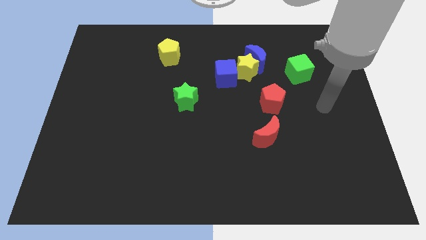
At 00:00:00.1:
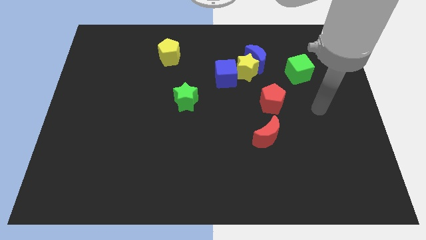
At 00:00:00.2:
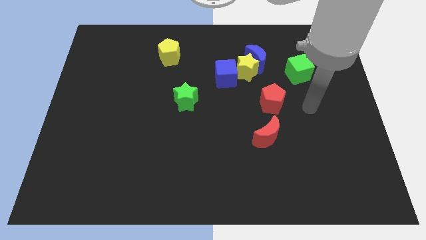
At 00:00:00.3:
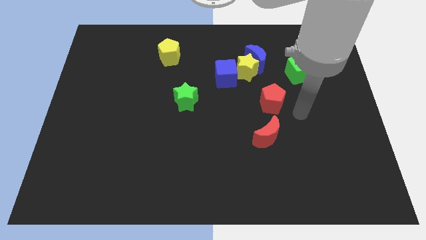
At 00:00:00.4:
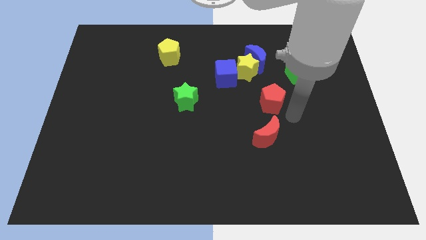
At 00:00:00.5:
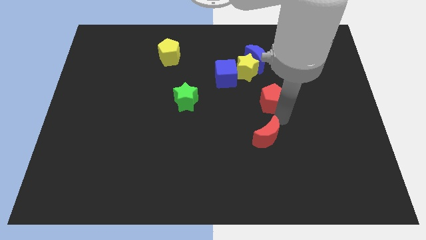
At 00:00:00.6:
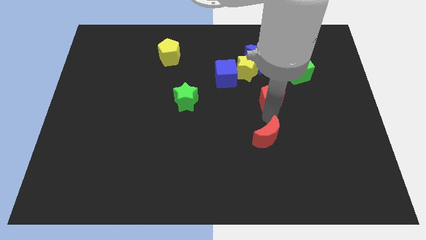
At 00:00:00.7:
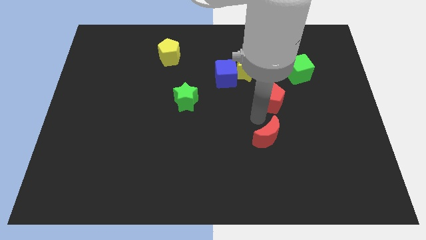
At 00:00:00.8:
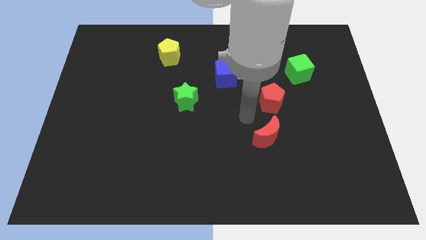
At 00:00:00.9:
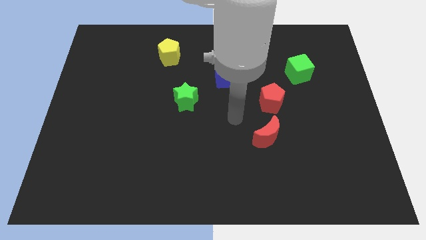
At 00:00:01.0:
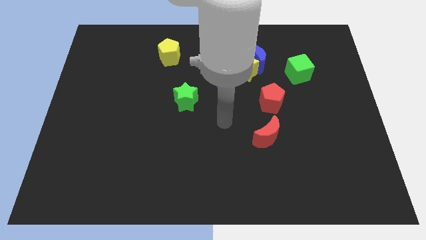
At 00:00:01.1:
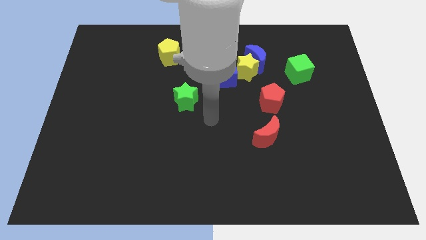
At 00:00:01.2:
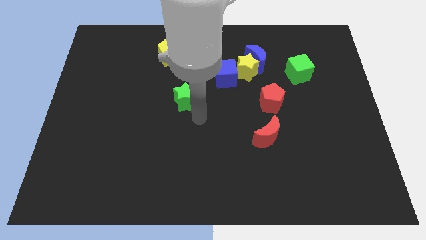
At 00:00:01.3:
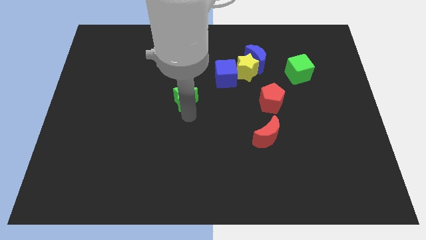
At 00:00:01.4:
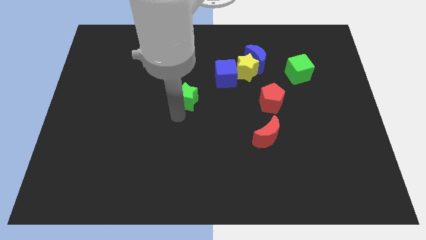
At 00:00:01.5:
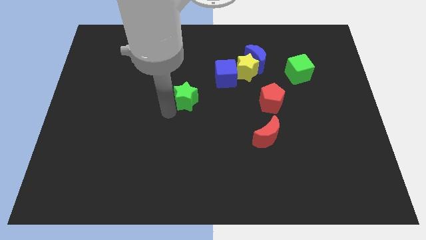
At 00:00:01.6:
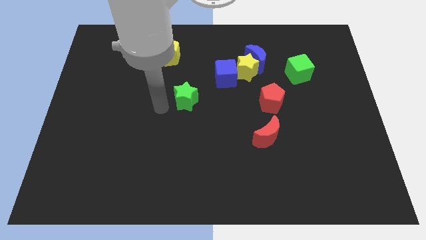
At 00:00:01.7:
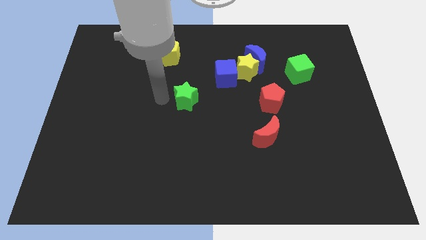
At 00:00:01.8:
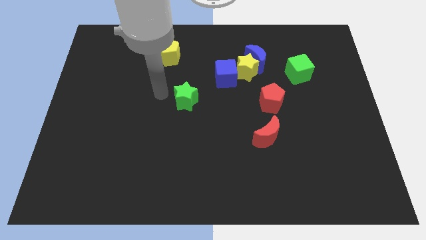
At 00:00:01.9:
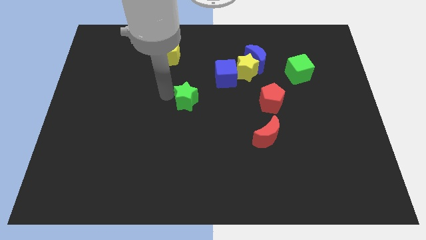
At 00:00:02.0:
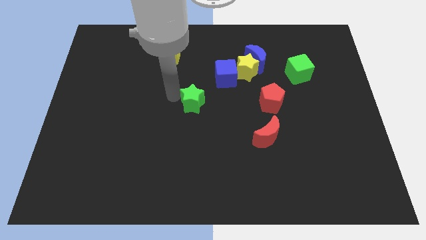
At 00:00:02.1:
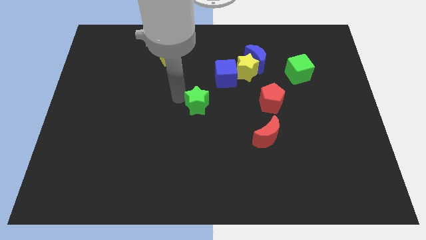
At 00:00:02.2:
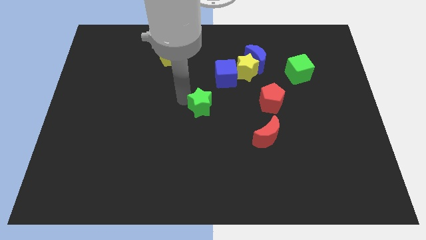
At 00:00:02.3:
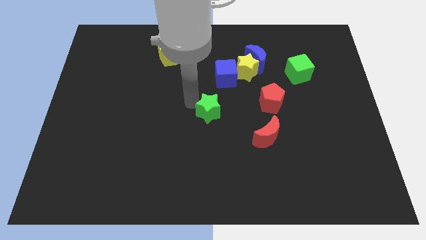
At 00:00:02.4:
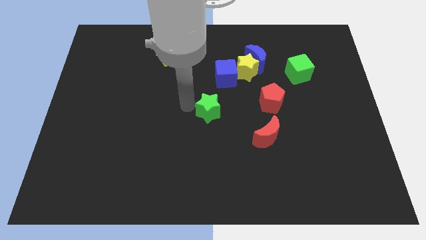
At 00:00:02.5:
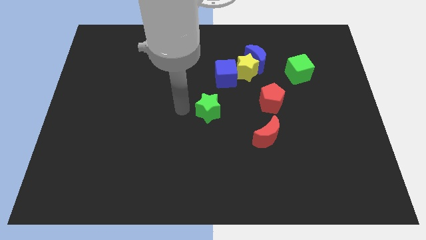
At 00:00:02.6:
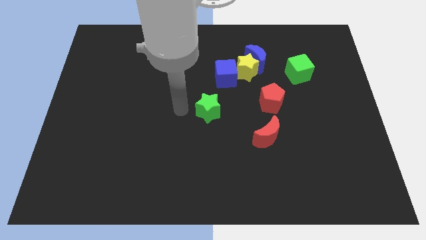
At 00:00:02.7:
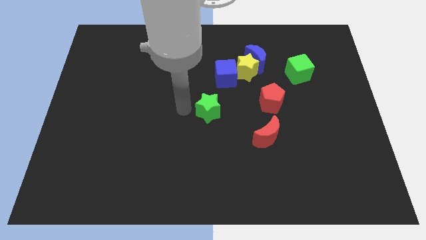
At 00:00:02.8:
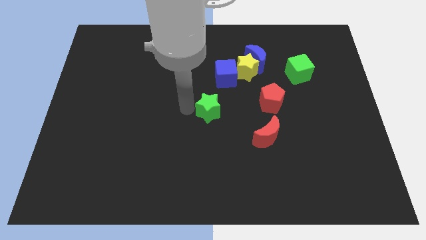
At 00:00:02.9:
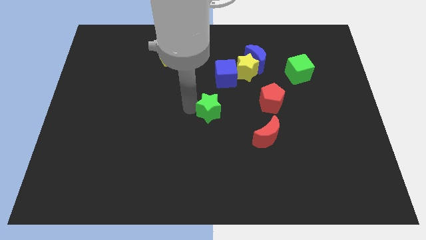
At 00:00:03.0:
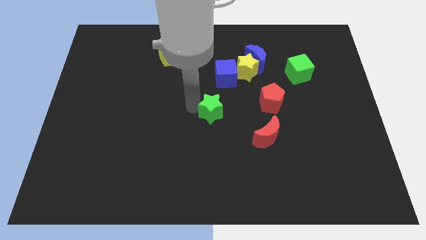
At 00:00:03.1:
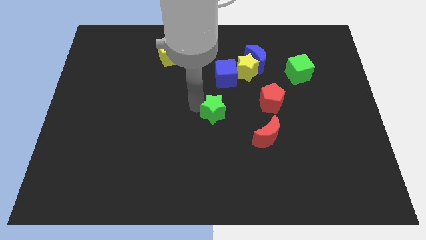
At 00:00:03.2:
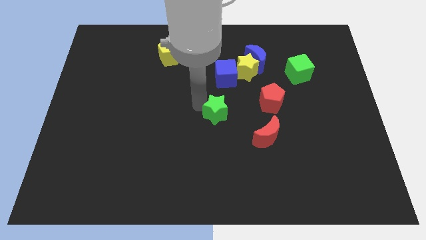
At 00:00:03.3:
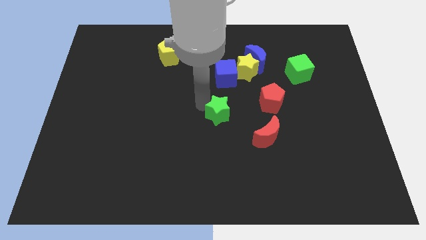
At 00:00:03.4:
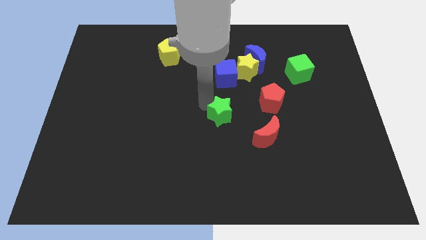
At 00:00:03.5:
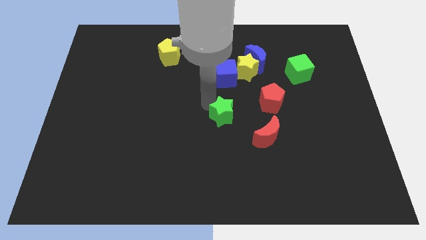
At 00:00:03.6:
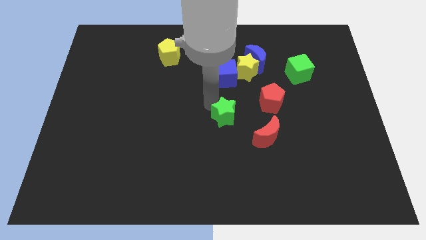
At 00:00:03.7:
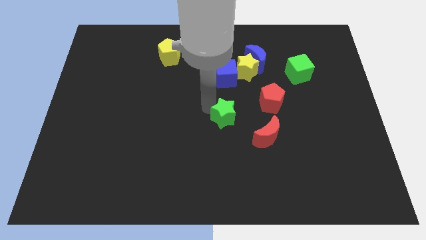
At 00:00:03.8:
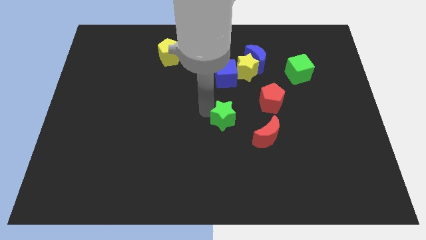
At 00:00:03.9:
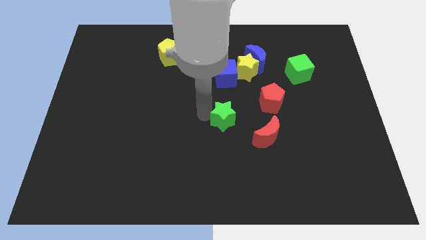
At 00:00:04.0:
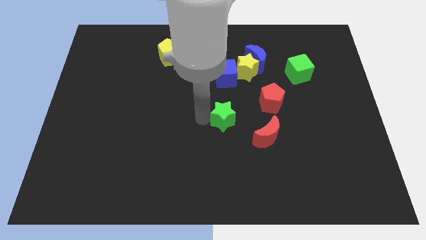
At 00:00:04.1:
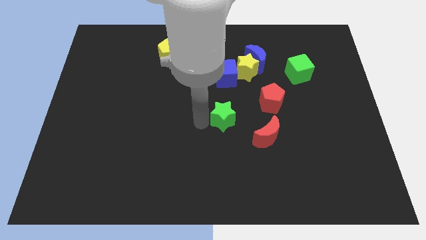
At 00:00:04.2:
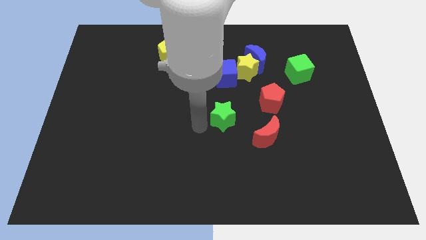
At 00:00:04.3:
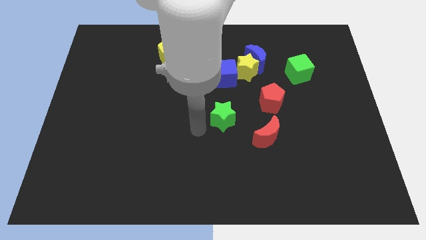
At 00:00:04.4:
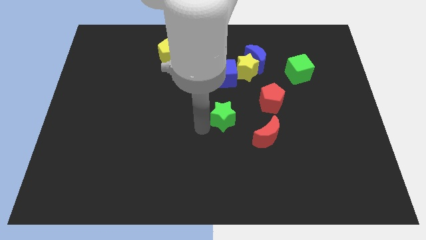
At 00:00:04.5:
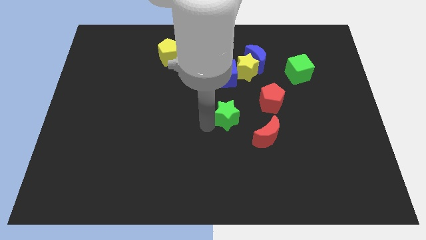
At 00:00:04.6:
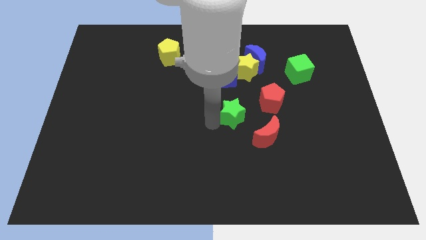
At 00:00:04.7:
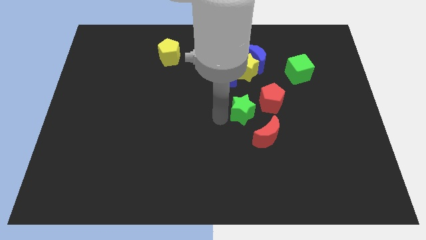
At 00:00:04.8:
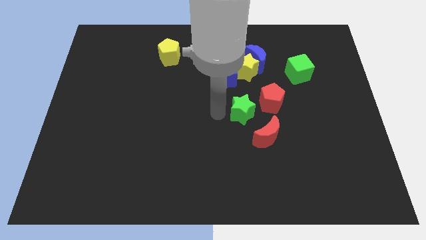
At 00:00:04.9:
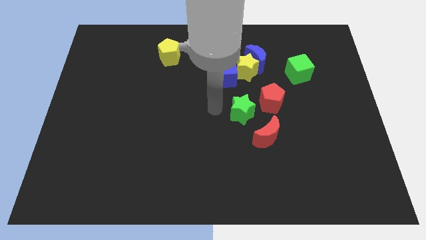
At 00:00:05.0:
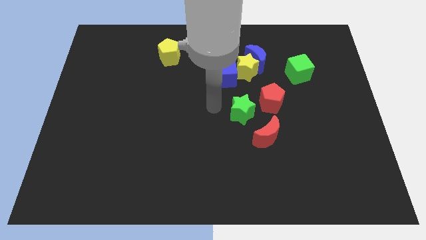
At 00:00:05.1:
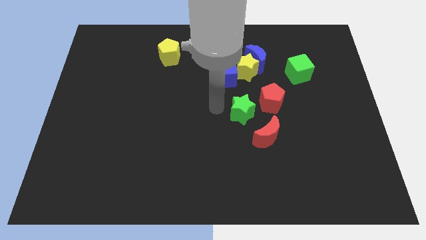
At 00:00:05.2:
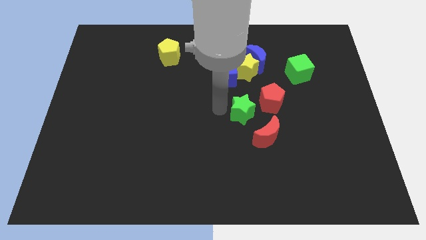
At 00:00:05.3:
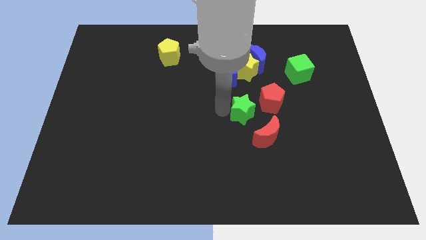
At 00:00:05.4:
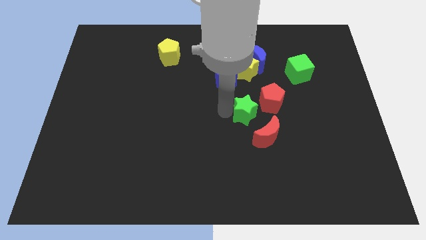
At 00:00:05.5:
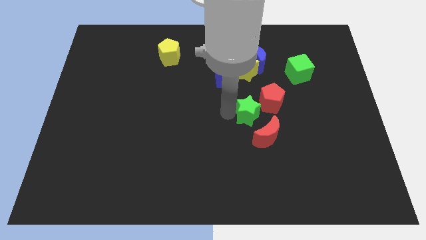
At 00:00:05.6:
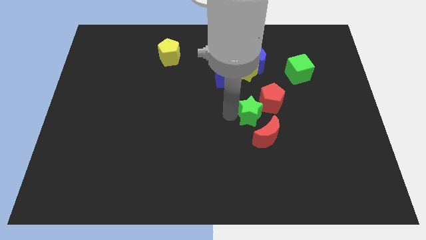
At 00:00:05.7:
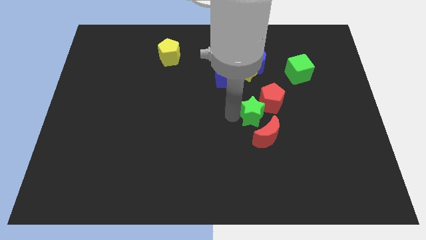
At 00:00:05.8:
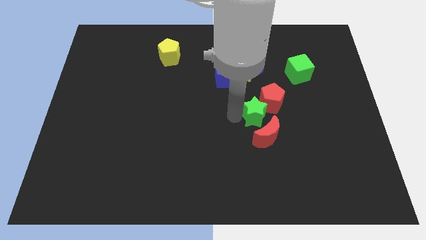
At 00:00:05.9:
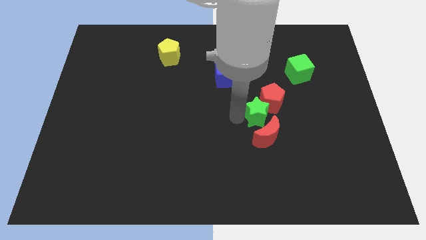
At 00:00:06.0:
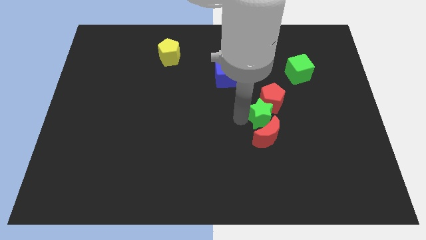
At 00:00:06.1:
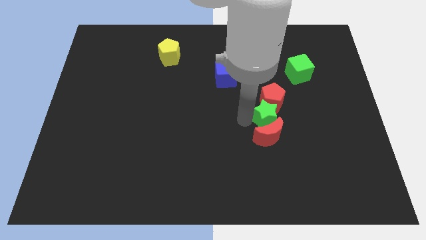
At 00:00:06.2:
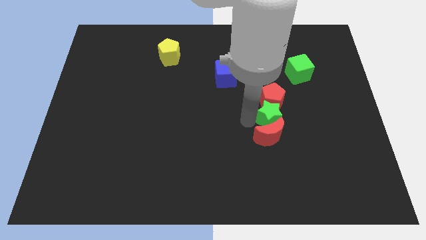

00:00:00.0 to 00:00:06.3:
slide the green star to the bottom right side of the red pentagon

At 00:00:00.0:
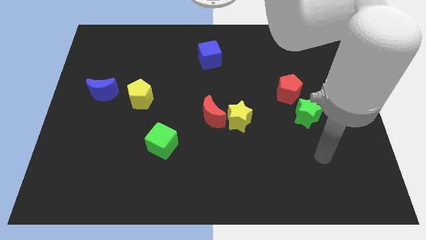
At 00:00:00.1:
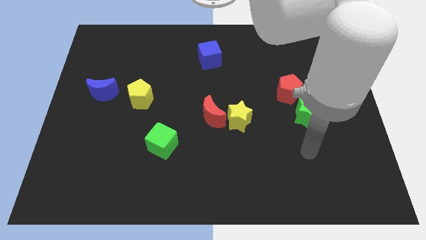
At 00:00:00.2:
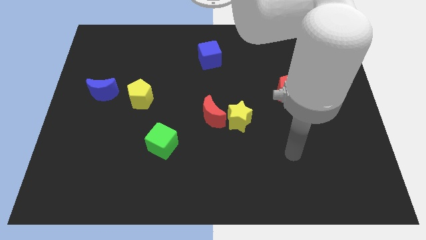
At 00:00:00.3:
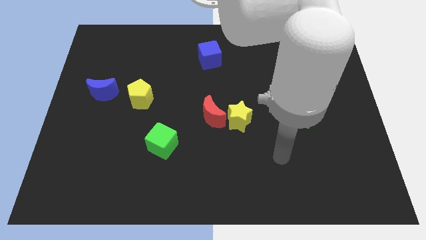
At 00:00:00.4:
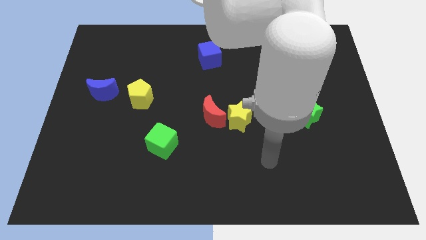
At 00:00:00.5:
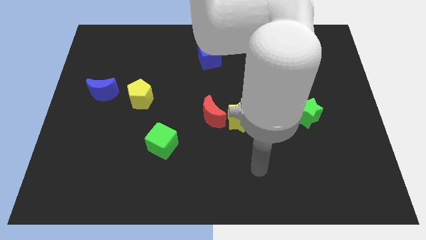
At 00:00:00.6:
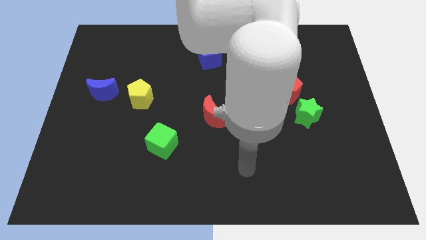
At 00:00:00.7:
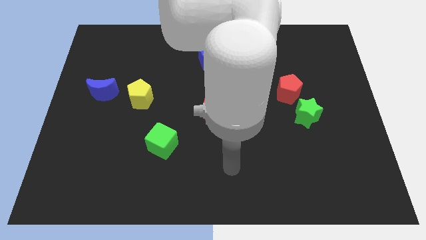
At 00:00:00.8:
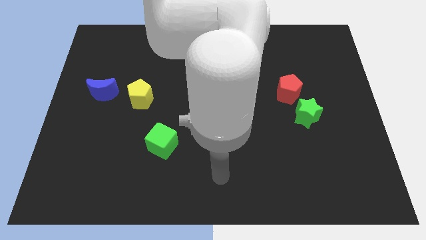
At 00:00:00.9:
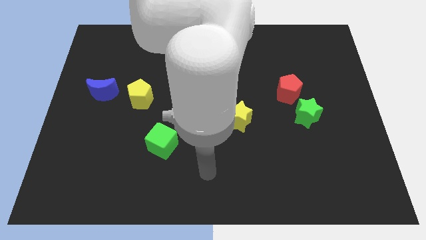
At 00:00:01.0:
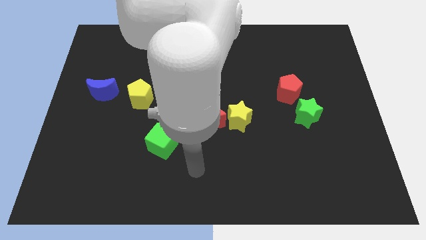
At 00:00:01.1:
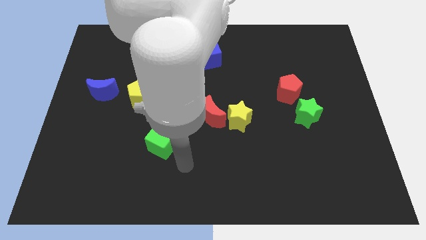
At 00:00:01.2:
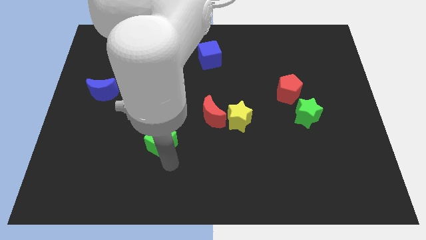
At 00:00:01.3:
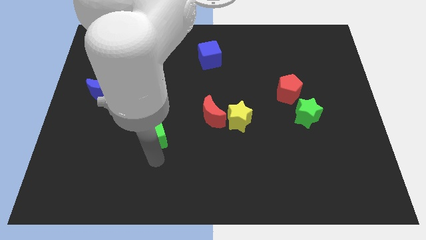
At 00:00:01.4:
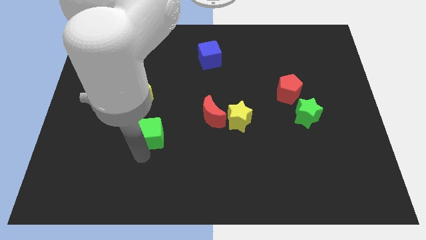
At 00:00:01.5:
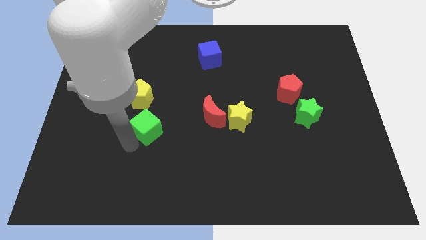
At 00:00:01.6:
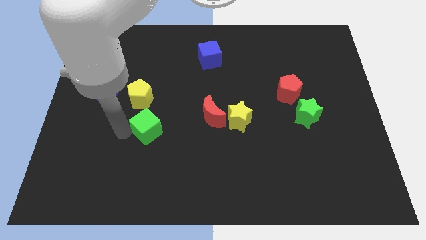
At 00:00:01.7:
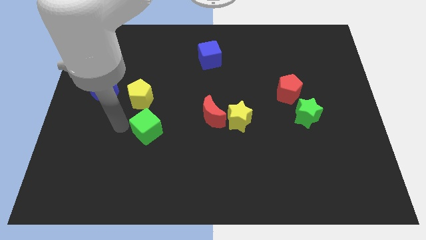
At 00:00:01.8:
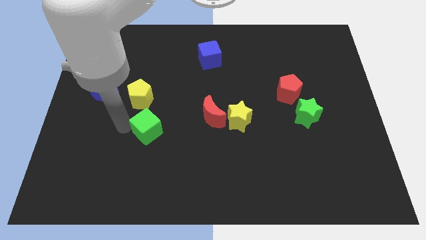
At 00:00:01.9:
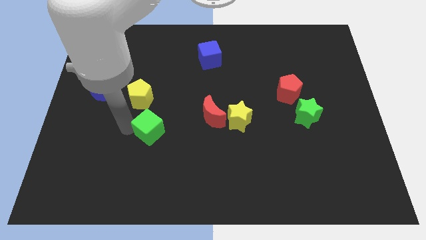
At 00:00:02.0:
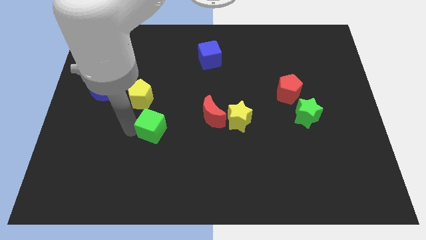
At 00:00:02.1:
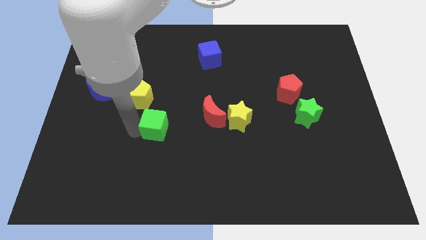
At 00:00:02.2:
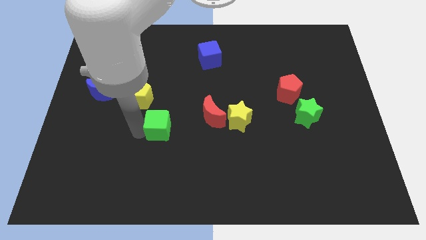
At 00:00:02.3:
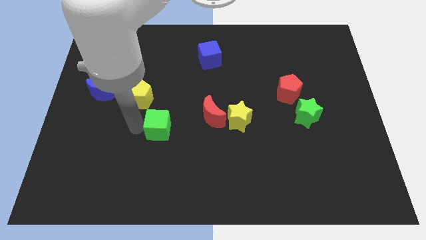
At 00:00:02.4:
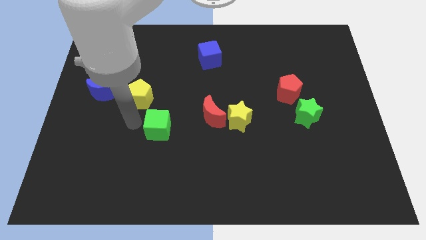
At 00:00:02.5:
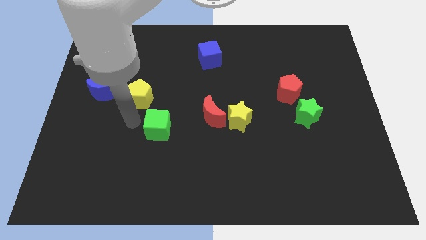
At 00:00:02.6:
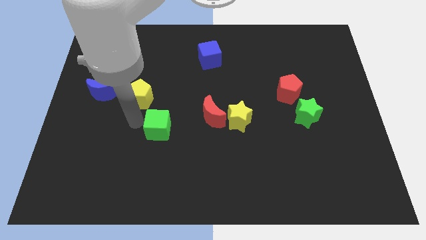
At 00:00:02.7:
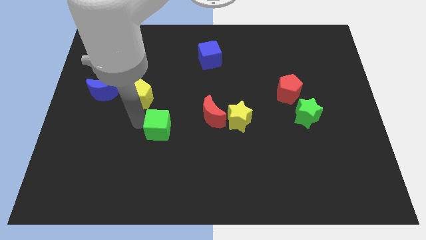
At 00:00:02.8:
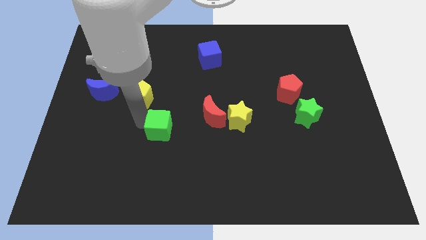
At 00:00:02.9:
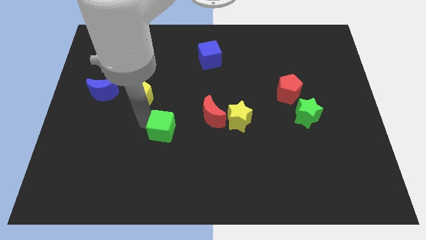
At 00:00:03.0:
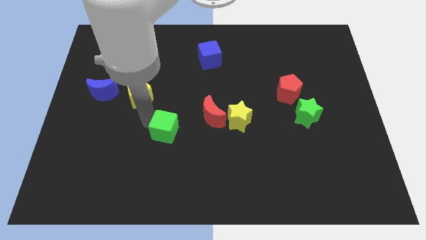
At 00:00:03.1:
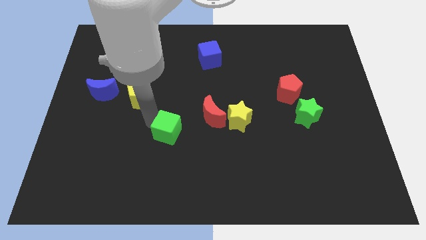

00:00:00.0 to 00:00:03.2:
move the green cube to the bottom left of the red moon
